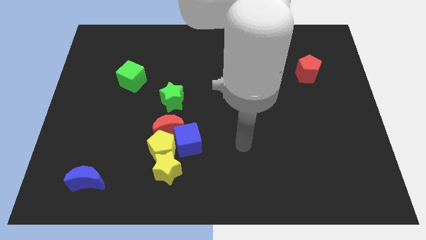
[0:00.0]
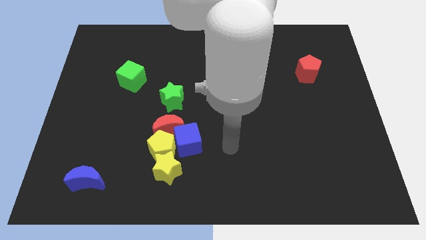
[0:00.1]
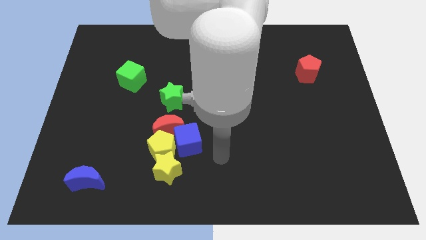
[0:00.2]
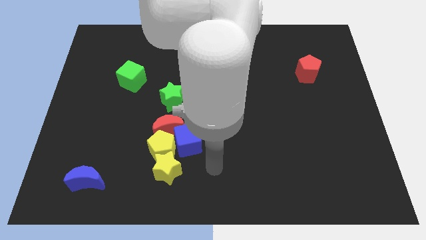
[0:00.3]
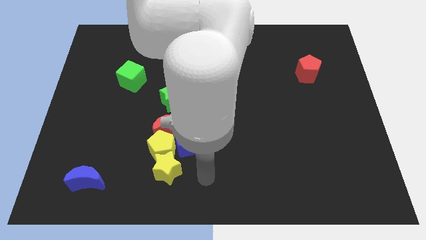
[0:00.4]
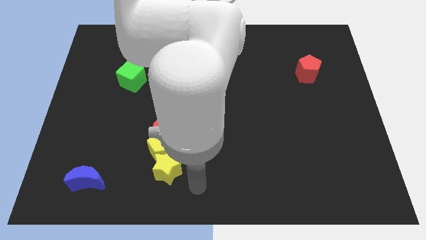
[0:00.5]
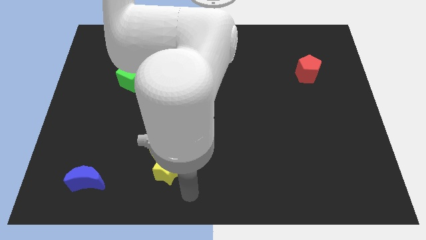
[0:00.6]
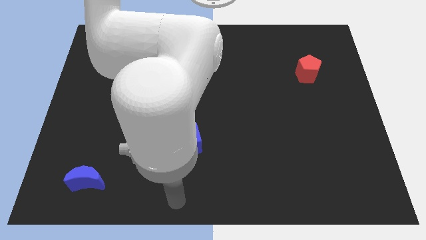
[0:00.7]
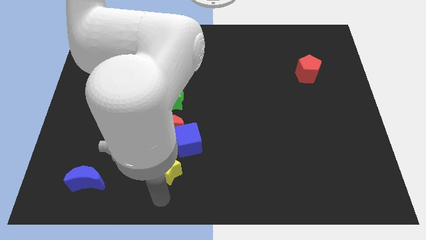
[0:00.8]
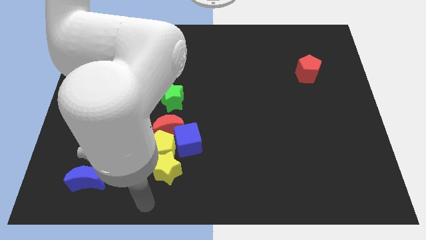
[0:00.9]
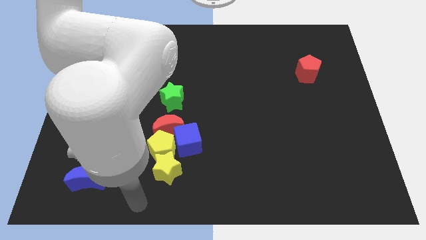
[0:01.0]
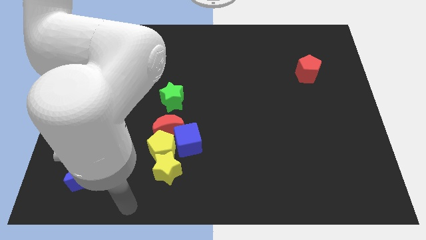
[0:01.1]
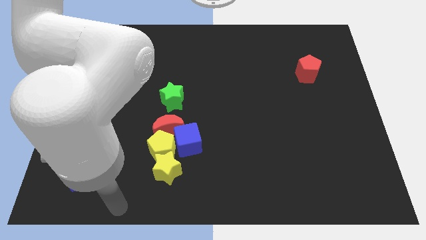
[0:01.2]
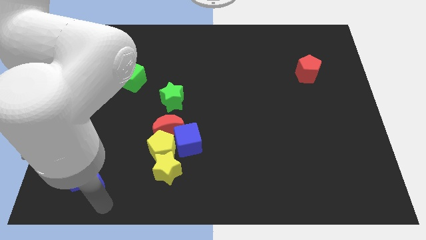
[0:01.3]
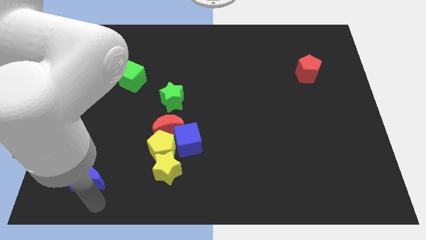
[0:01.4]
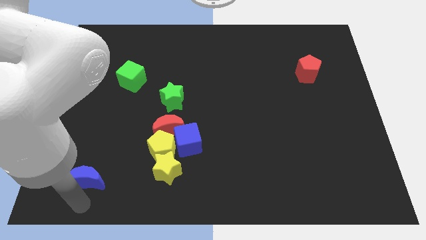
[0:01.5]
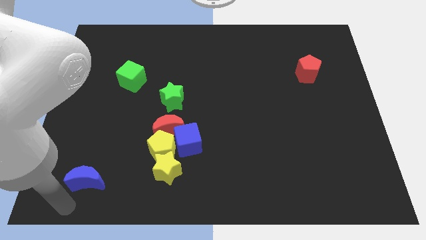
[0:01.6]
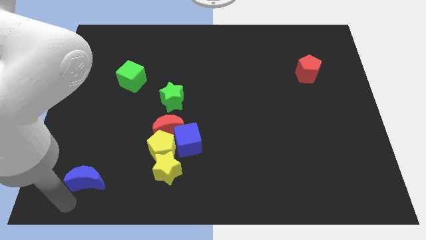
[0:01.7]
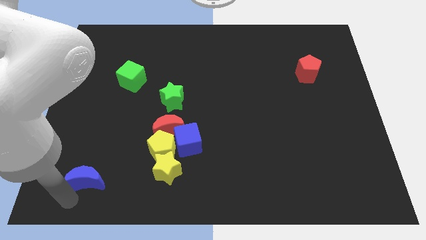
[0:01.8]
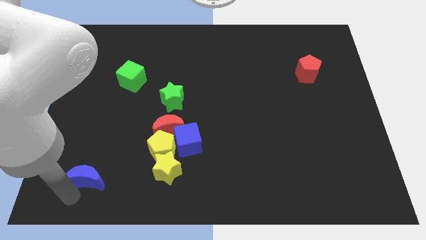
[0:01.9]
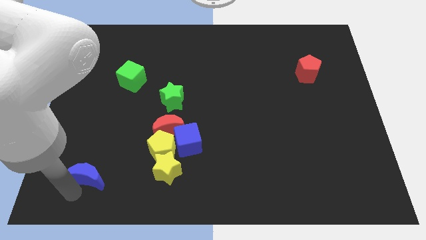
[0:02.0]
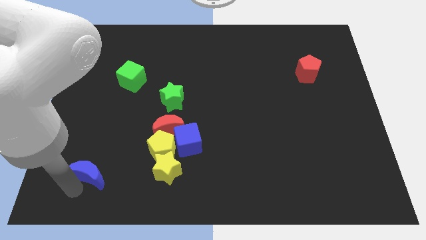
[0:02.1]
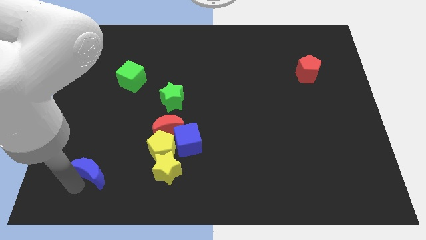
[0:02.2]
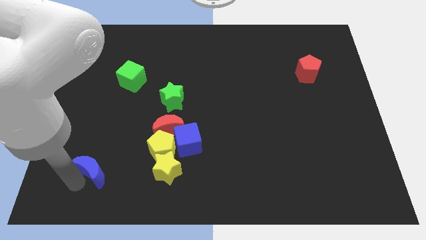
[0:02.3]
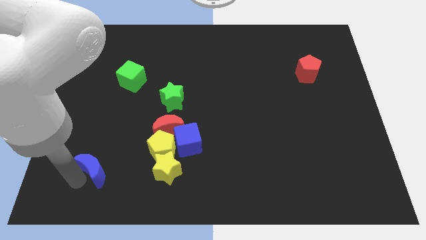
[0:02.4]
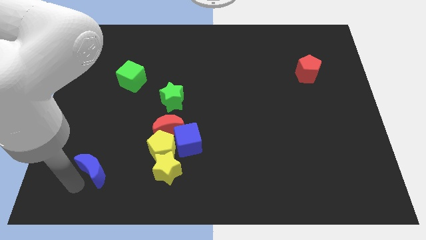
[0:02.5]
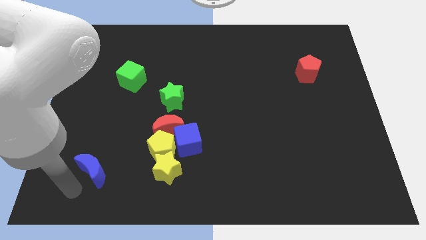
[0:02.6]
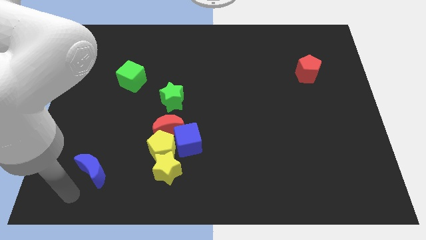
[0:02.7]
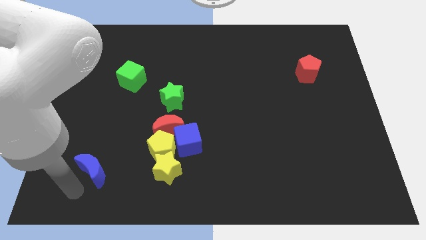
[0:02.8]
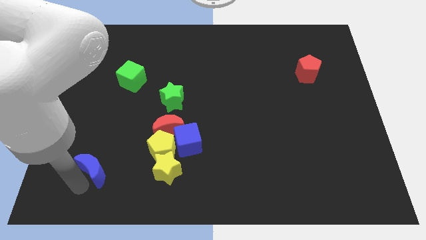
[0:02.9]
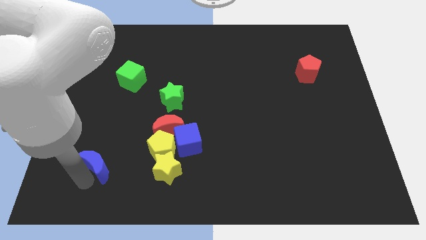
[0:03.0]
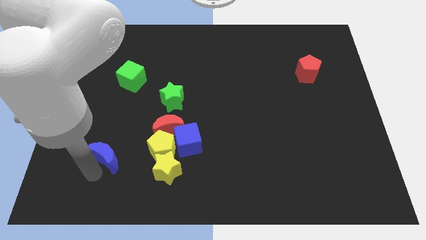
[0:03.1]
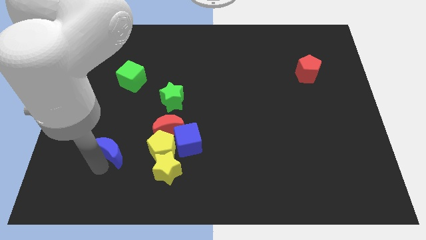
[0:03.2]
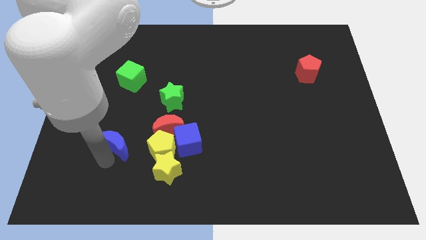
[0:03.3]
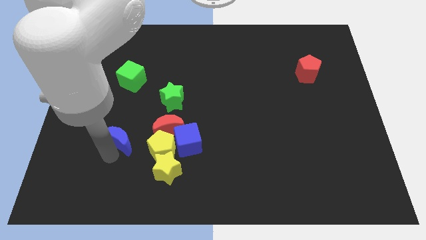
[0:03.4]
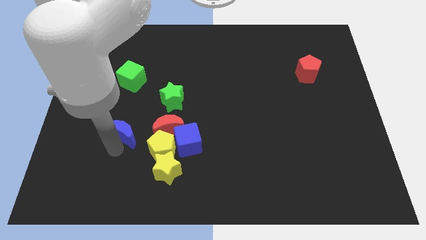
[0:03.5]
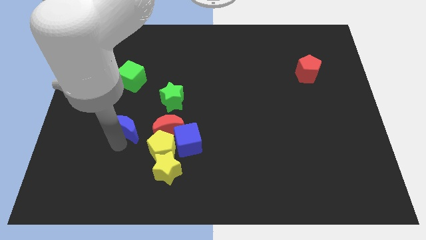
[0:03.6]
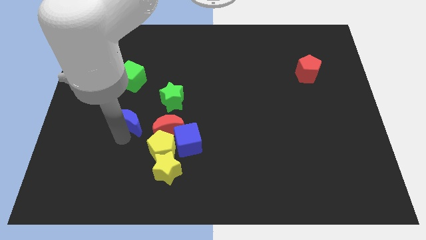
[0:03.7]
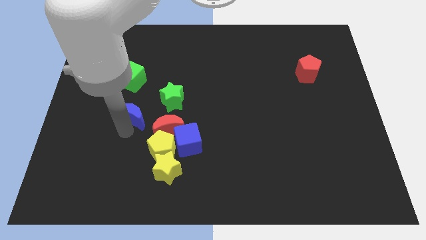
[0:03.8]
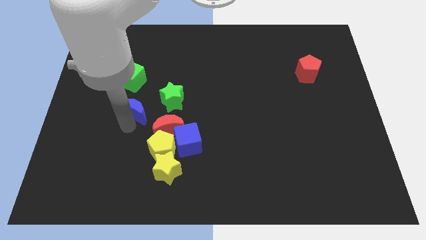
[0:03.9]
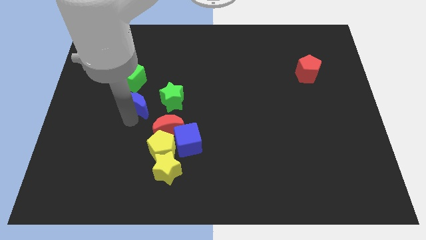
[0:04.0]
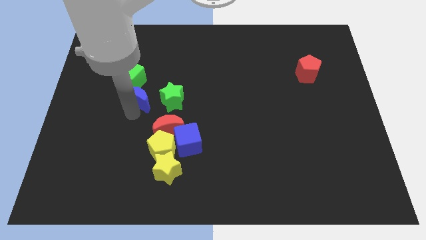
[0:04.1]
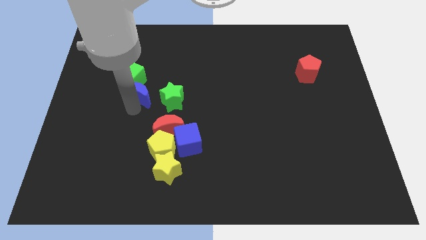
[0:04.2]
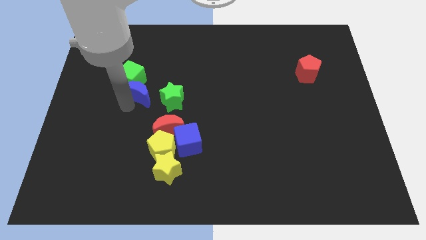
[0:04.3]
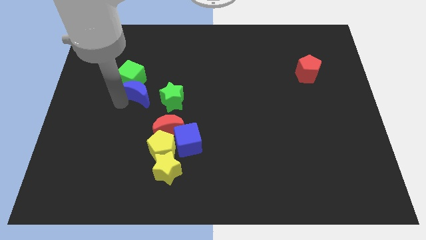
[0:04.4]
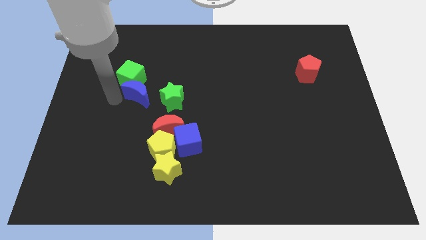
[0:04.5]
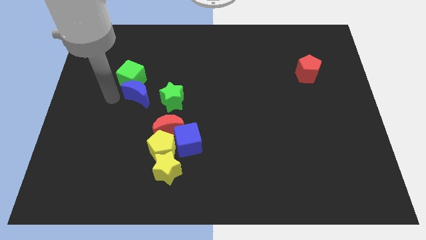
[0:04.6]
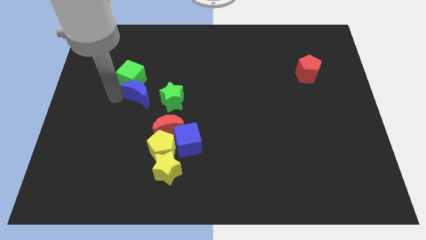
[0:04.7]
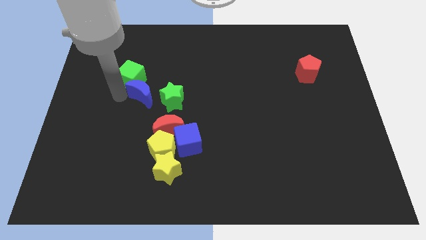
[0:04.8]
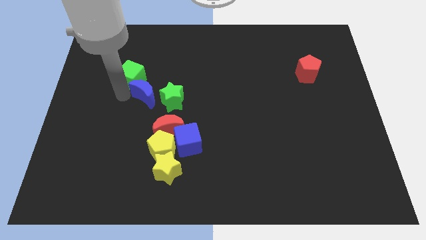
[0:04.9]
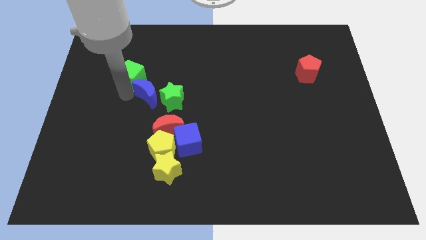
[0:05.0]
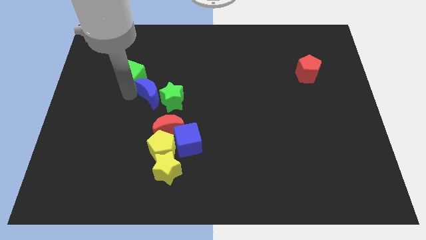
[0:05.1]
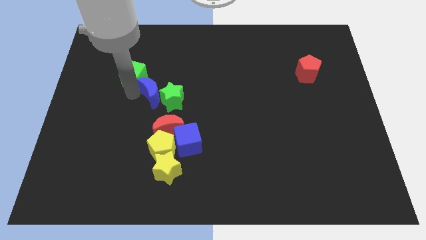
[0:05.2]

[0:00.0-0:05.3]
push the blue moon to the top of the red moon

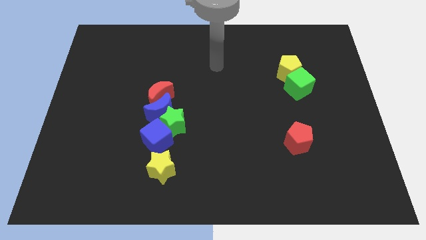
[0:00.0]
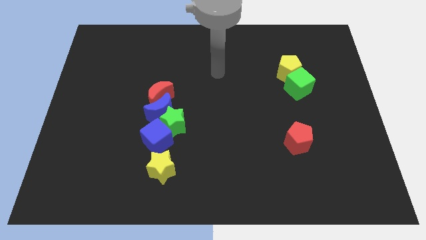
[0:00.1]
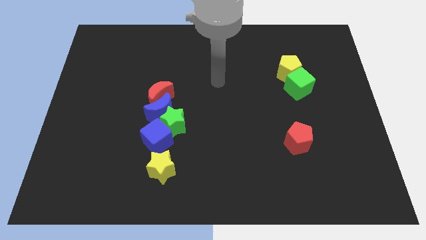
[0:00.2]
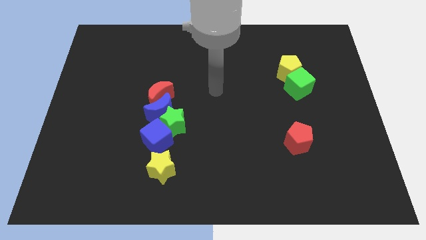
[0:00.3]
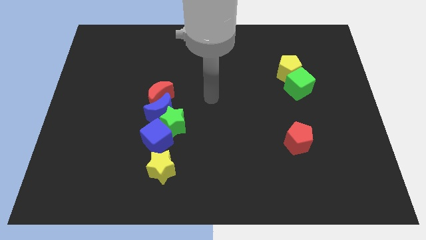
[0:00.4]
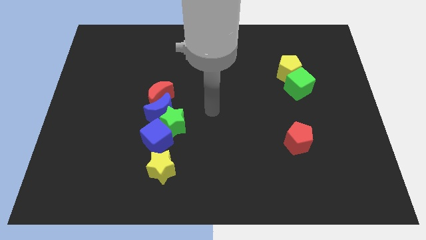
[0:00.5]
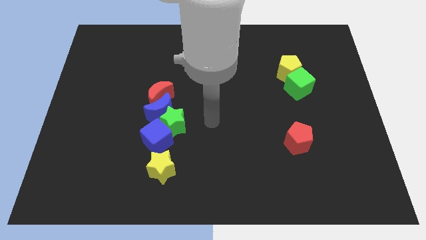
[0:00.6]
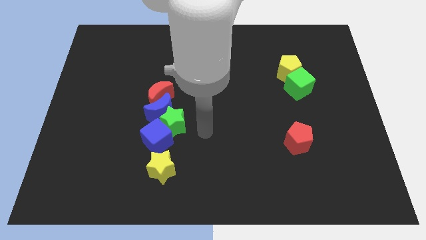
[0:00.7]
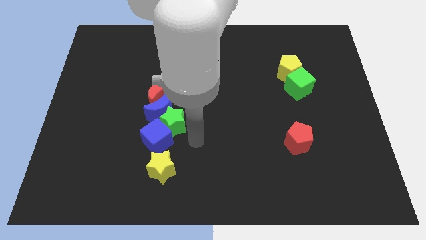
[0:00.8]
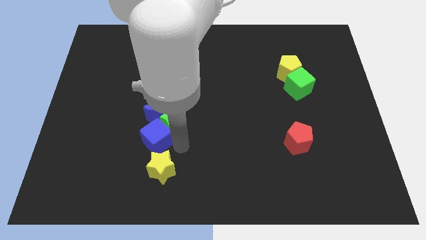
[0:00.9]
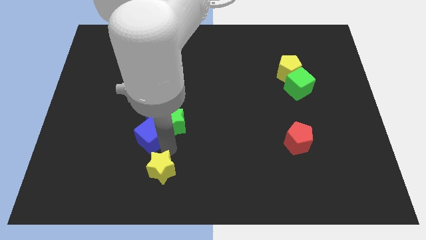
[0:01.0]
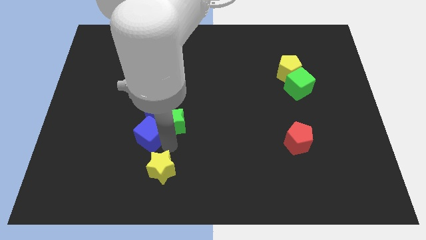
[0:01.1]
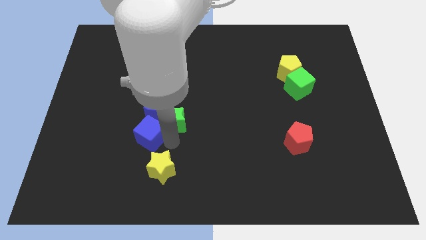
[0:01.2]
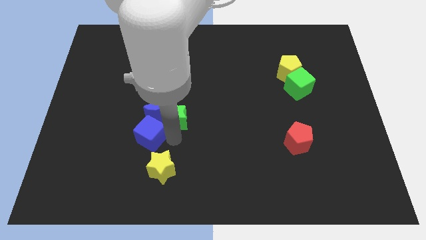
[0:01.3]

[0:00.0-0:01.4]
push the green star diagonally up and to the right of the blue moon
